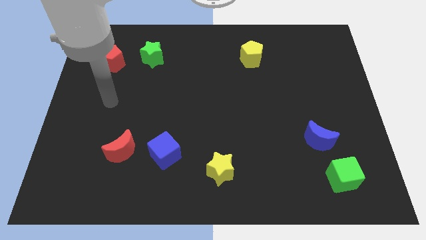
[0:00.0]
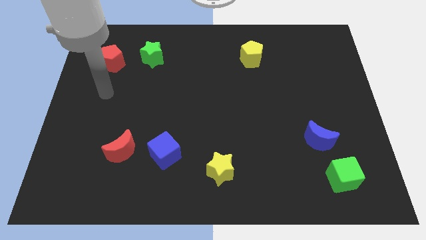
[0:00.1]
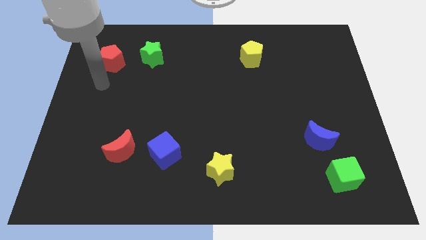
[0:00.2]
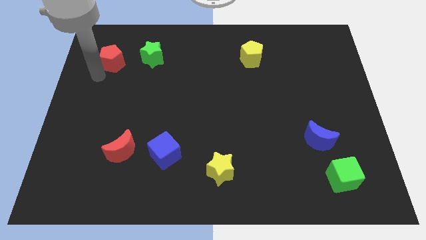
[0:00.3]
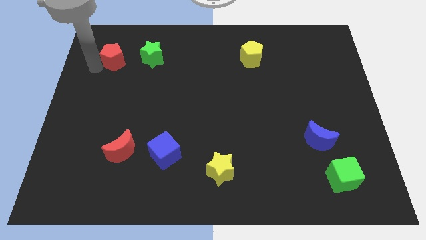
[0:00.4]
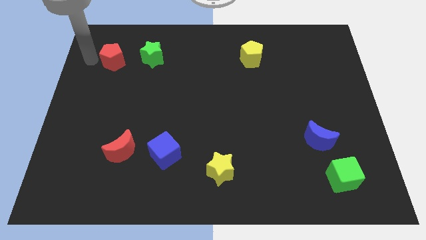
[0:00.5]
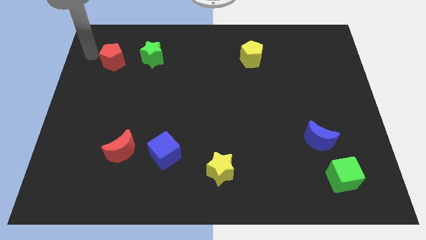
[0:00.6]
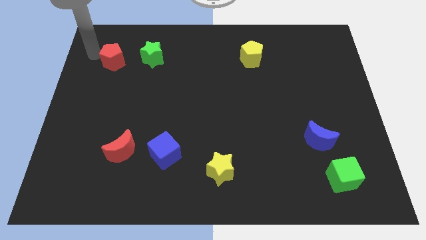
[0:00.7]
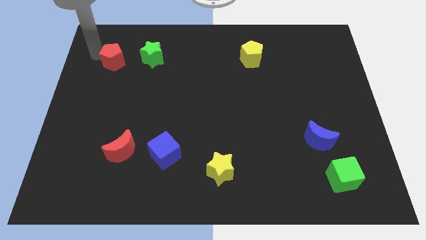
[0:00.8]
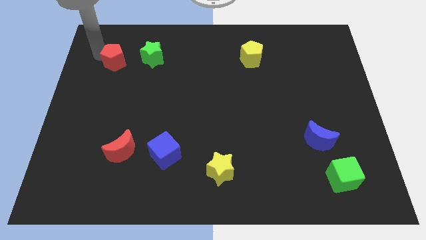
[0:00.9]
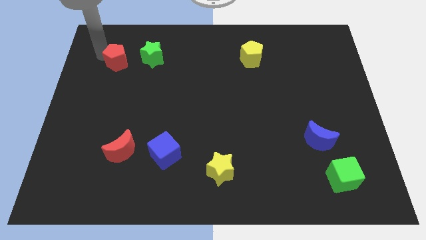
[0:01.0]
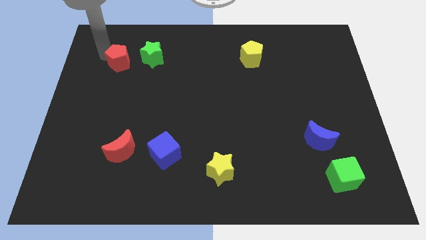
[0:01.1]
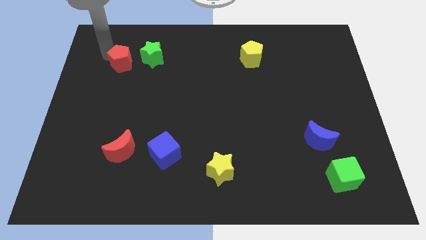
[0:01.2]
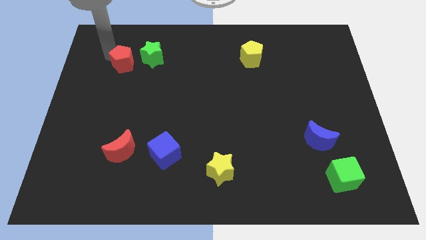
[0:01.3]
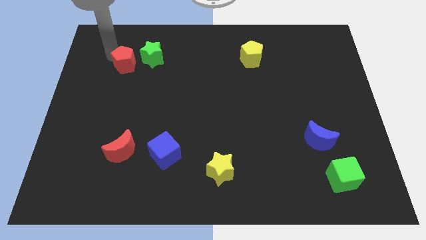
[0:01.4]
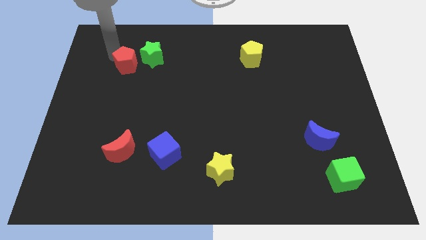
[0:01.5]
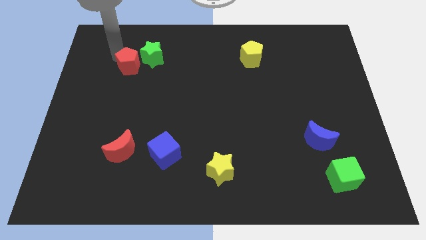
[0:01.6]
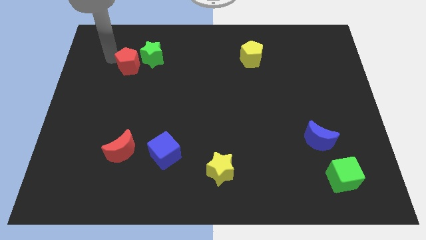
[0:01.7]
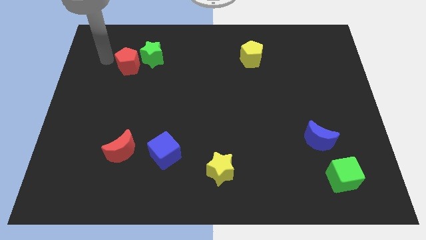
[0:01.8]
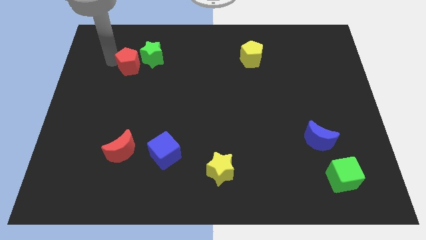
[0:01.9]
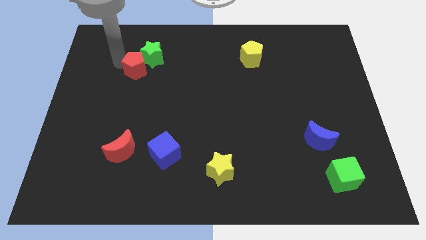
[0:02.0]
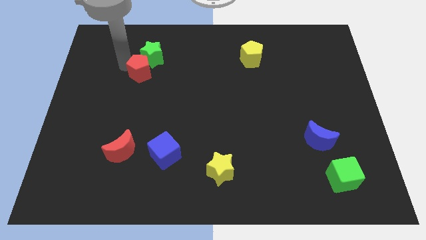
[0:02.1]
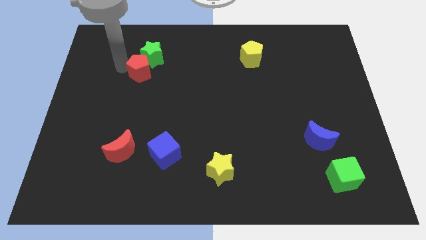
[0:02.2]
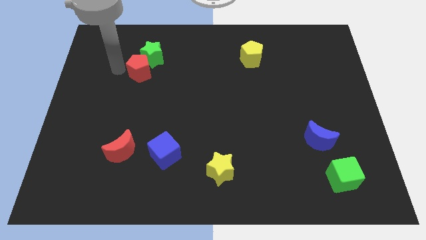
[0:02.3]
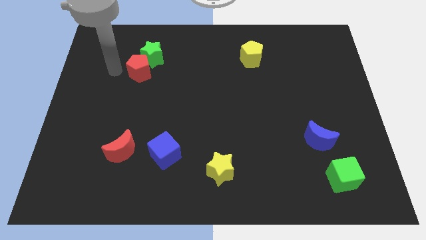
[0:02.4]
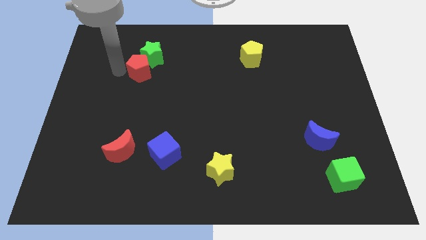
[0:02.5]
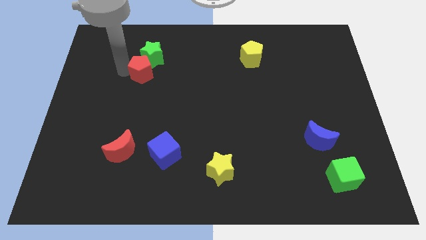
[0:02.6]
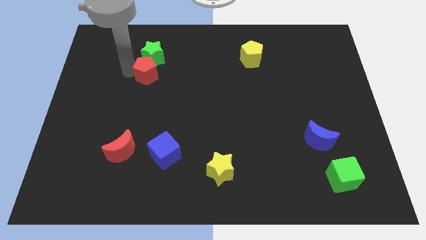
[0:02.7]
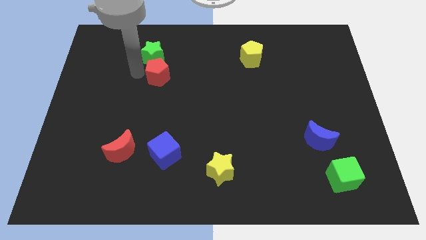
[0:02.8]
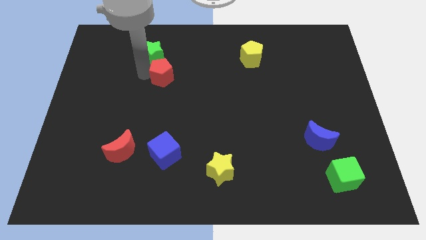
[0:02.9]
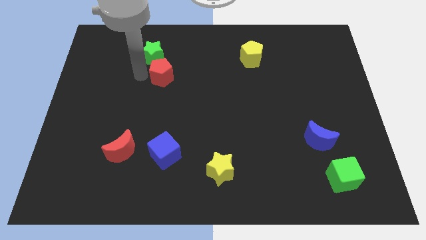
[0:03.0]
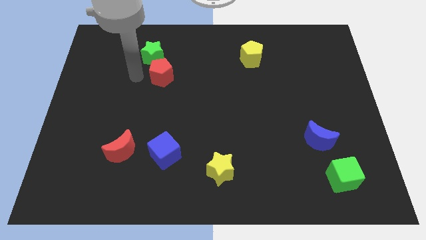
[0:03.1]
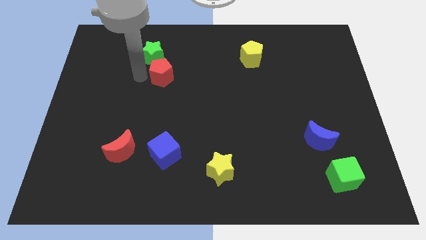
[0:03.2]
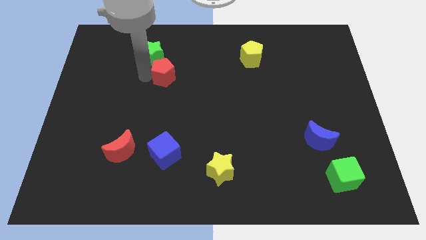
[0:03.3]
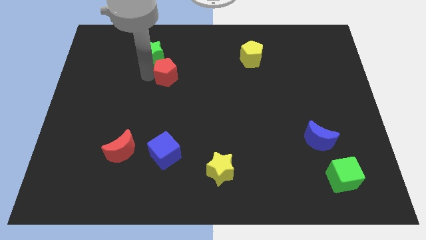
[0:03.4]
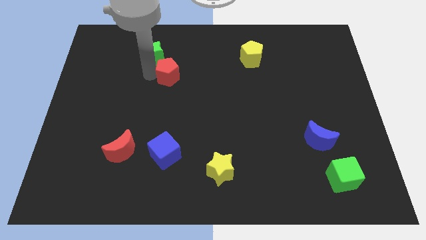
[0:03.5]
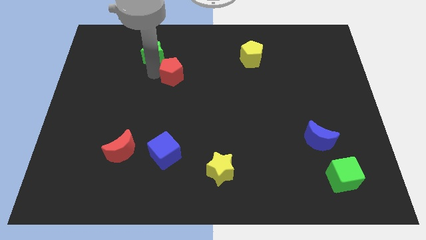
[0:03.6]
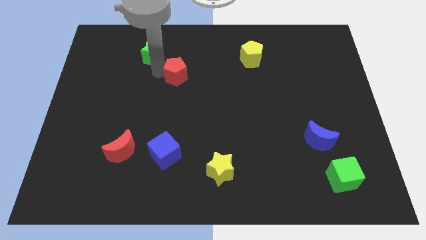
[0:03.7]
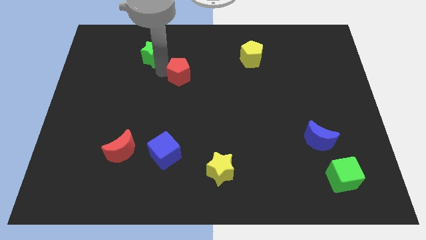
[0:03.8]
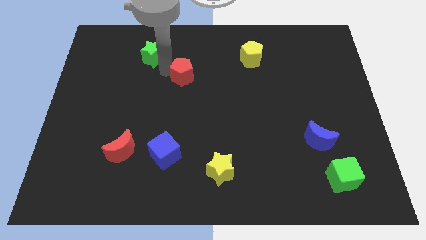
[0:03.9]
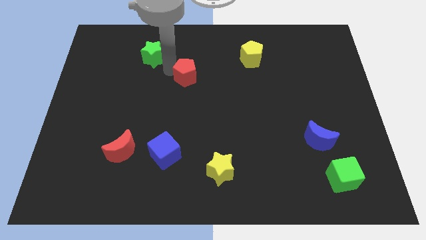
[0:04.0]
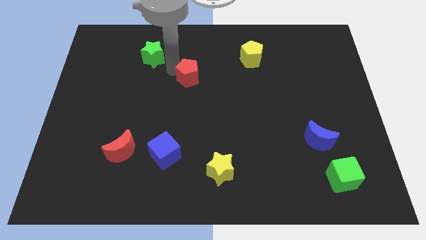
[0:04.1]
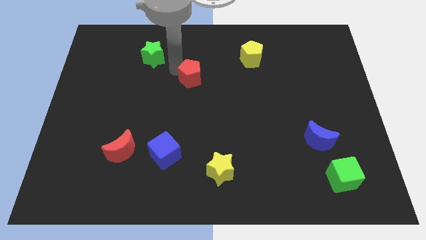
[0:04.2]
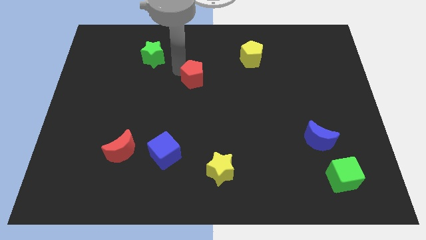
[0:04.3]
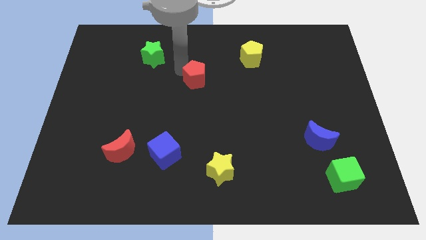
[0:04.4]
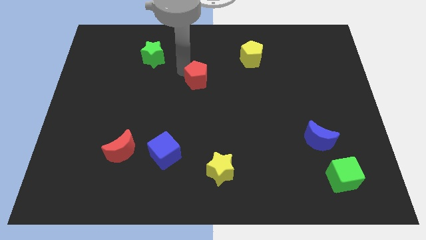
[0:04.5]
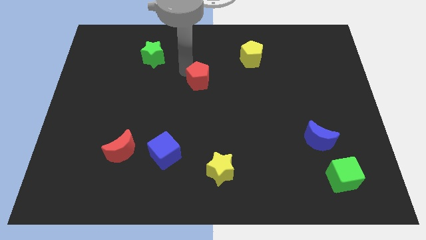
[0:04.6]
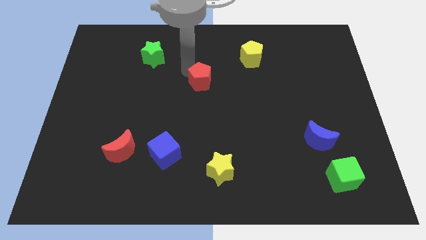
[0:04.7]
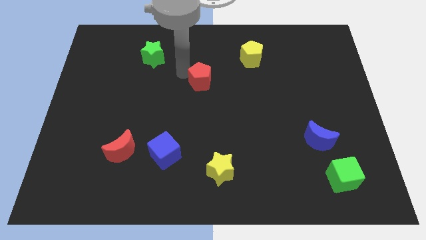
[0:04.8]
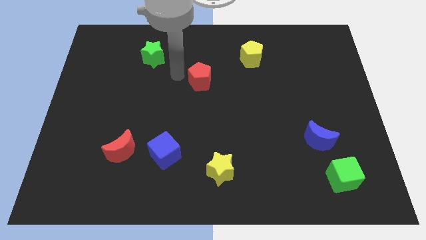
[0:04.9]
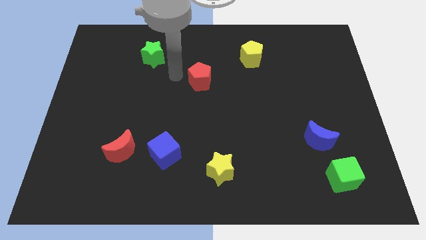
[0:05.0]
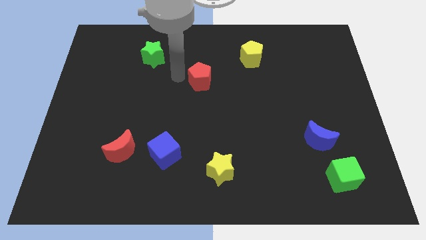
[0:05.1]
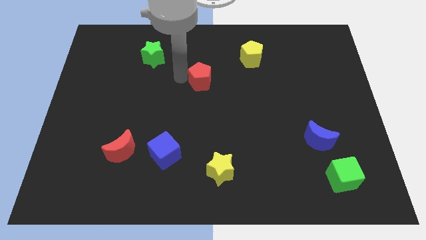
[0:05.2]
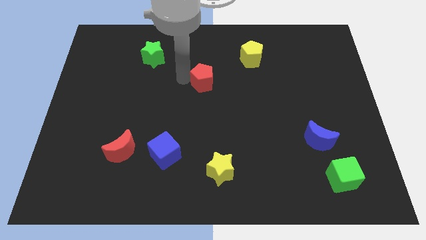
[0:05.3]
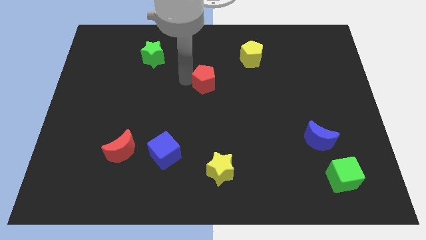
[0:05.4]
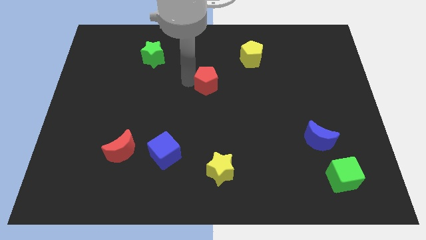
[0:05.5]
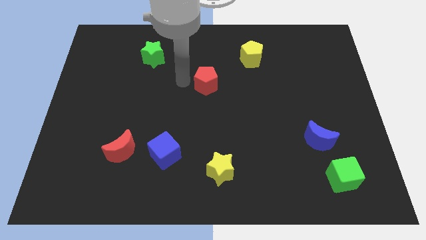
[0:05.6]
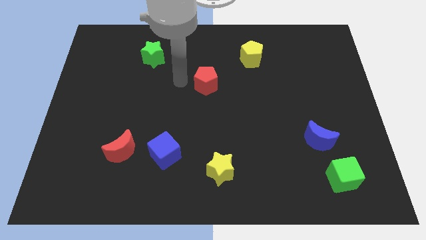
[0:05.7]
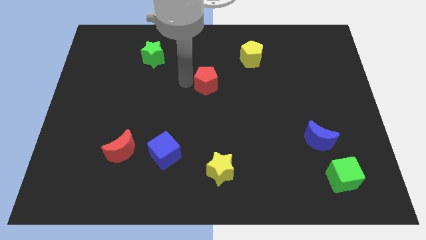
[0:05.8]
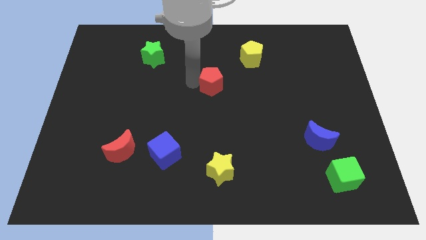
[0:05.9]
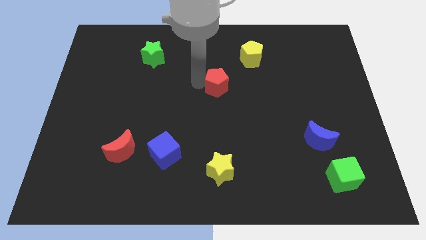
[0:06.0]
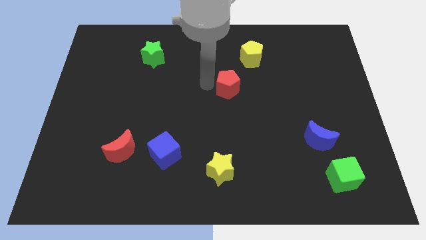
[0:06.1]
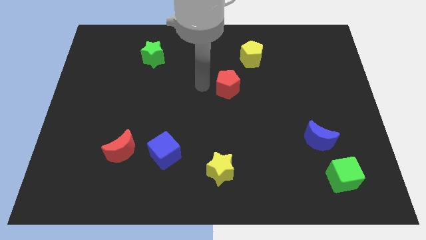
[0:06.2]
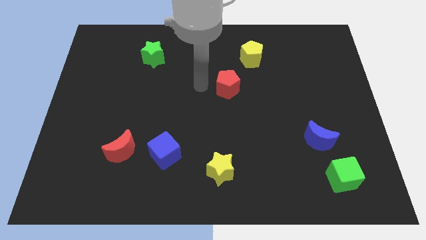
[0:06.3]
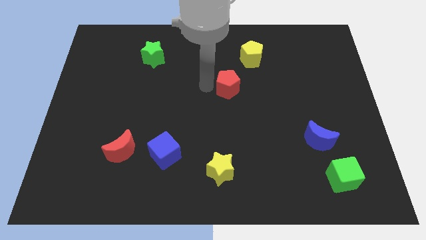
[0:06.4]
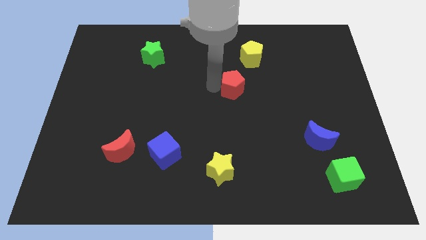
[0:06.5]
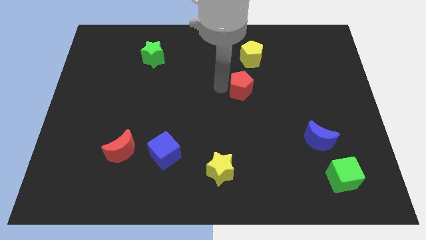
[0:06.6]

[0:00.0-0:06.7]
slide the red pentagon to the bottom of the yellow pentagon

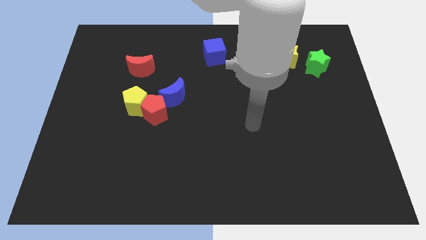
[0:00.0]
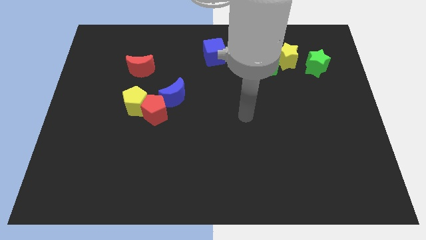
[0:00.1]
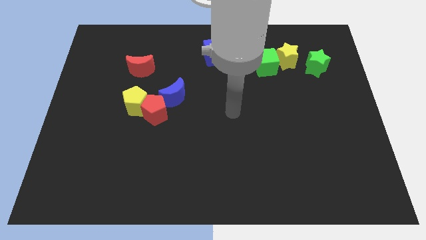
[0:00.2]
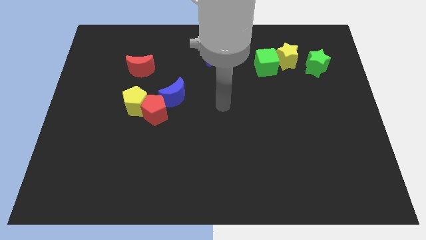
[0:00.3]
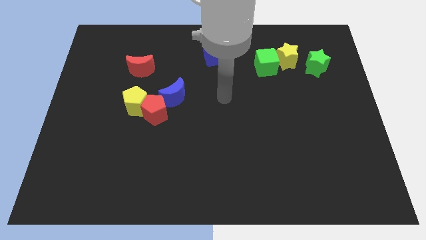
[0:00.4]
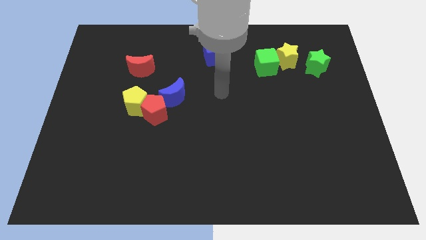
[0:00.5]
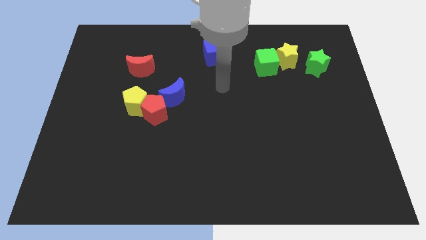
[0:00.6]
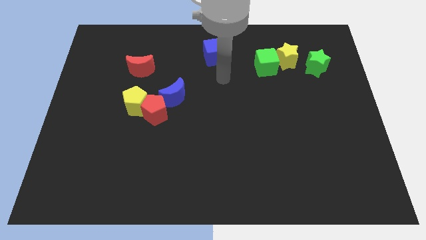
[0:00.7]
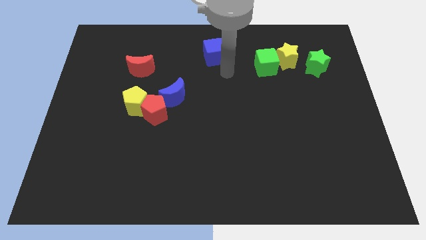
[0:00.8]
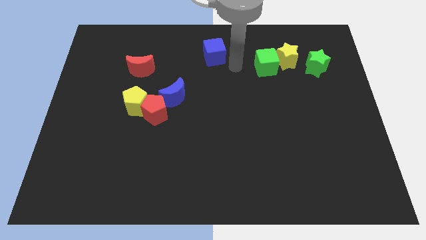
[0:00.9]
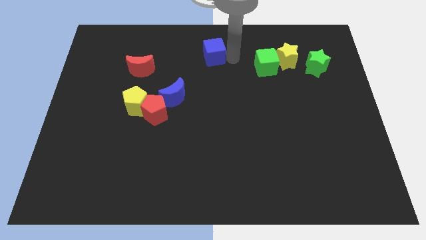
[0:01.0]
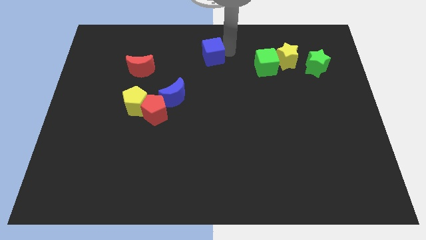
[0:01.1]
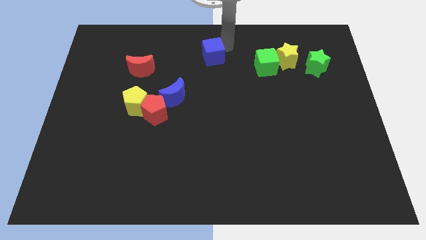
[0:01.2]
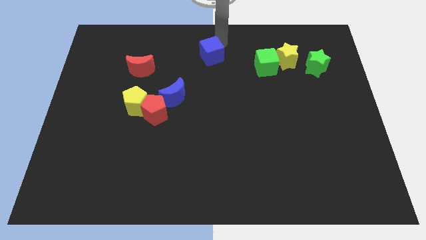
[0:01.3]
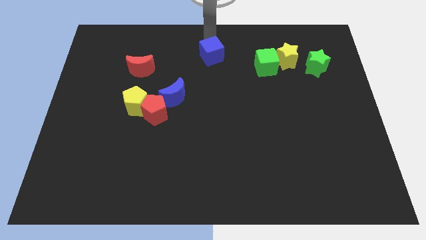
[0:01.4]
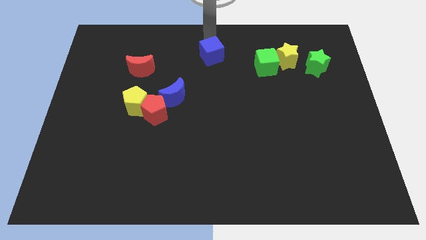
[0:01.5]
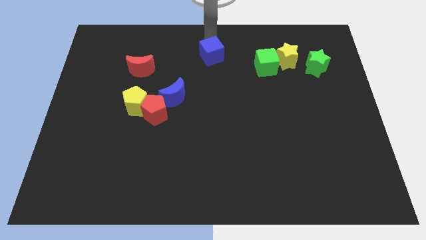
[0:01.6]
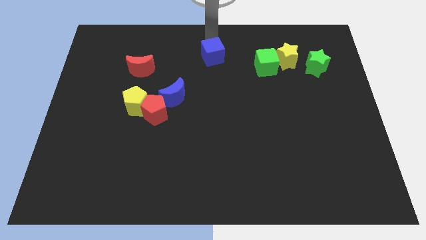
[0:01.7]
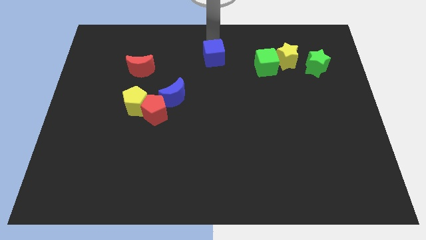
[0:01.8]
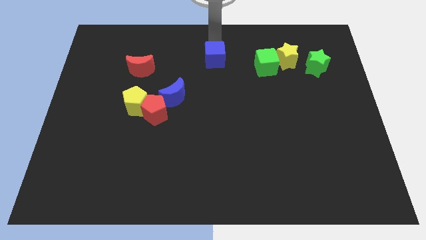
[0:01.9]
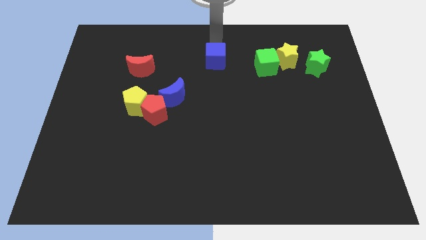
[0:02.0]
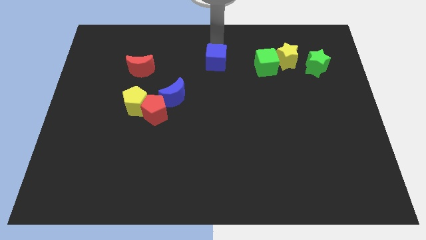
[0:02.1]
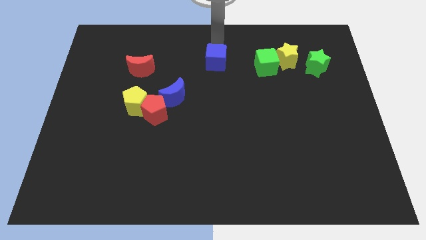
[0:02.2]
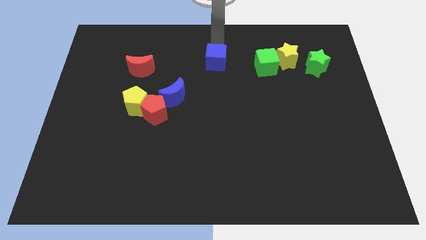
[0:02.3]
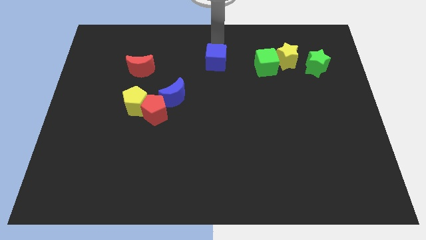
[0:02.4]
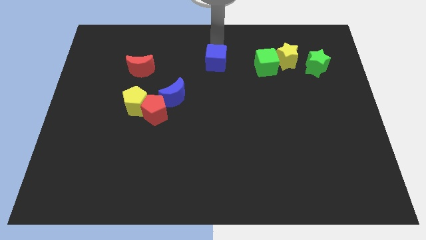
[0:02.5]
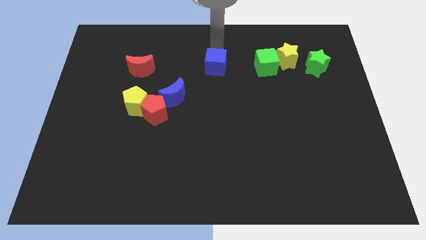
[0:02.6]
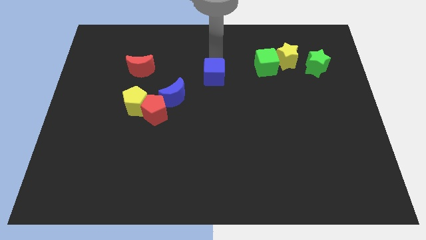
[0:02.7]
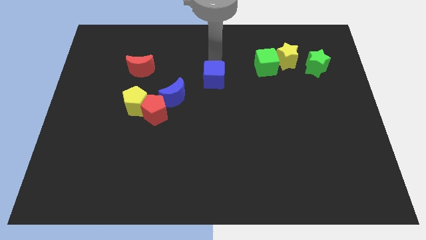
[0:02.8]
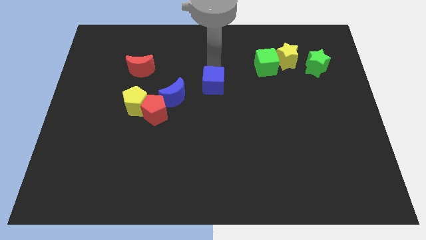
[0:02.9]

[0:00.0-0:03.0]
slide the blue cube to the right of the blue moon
